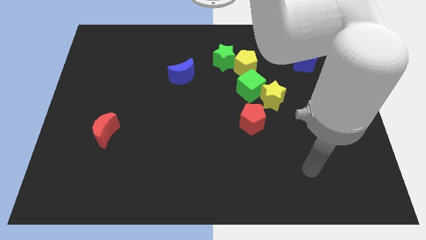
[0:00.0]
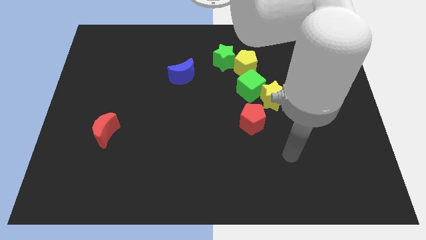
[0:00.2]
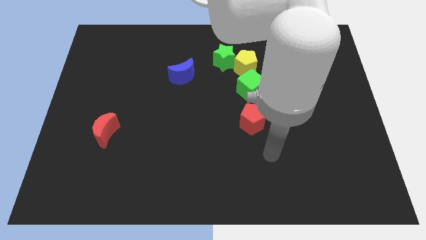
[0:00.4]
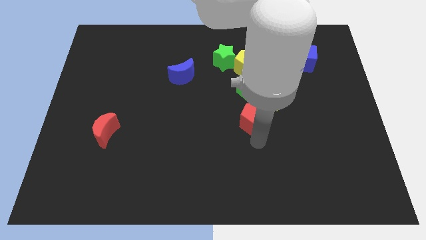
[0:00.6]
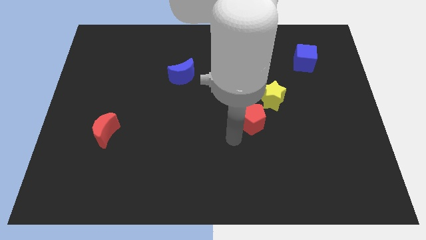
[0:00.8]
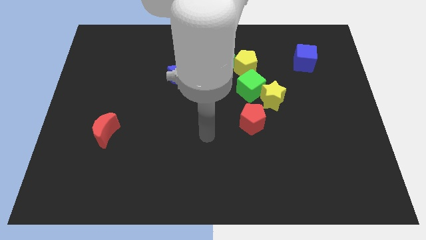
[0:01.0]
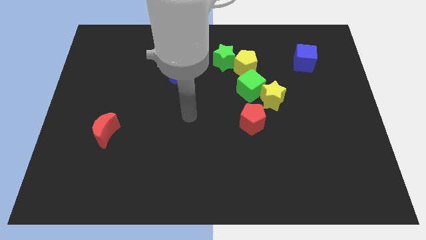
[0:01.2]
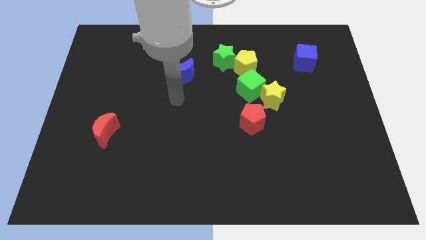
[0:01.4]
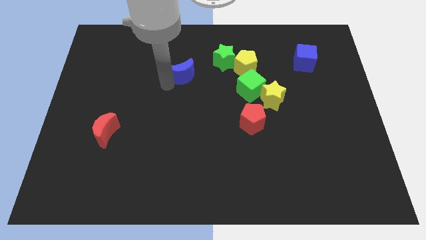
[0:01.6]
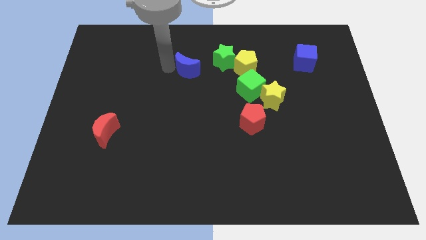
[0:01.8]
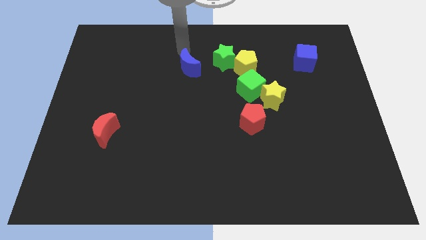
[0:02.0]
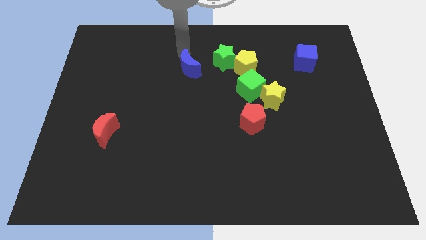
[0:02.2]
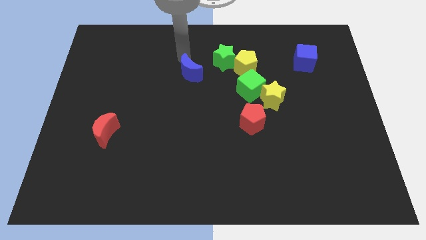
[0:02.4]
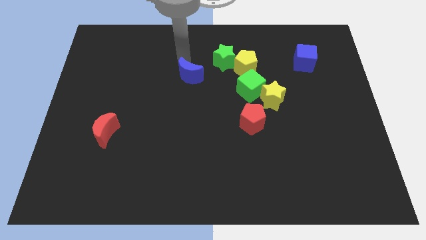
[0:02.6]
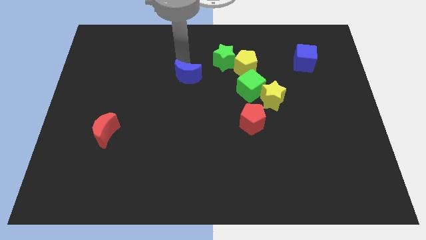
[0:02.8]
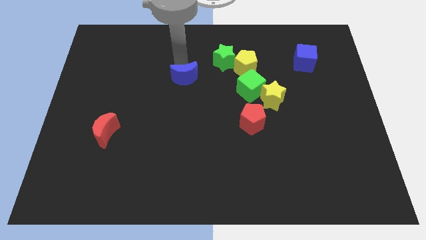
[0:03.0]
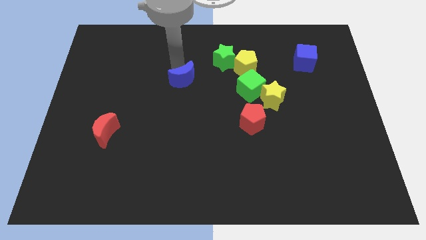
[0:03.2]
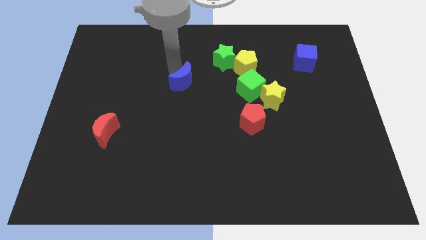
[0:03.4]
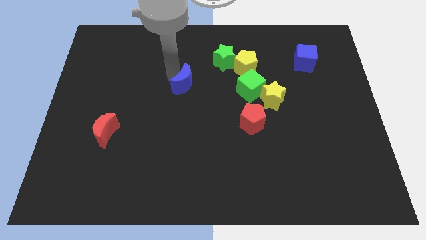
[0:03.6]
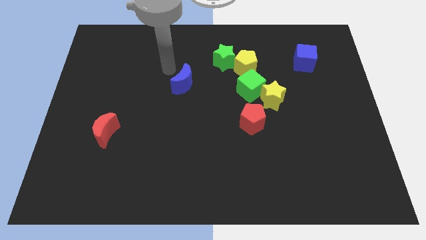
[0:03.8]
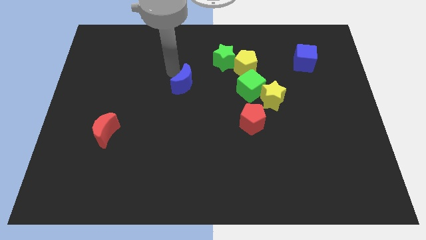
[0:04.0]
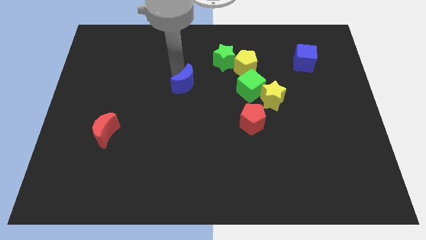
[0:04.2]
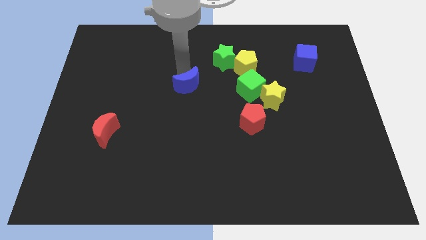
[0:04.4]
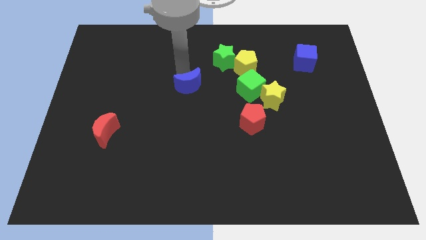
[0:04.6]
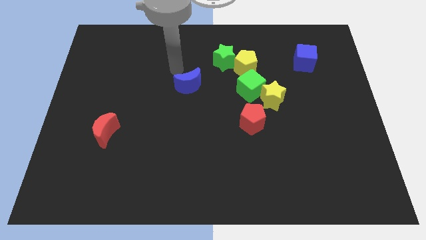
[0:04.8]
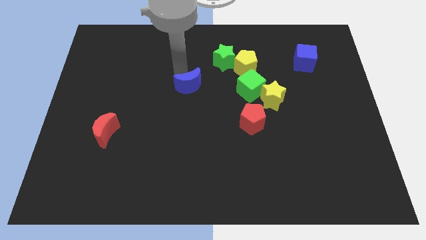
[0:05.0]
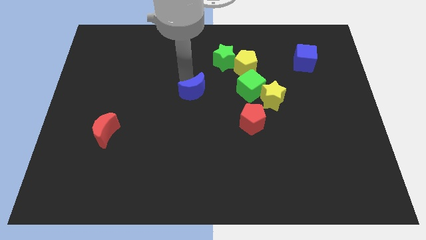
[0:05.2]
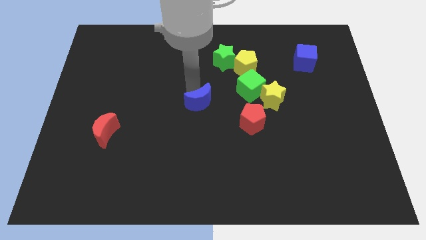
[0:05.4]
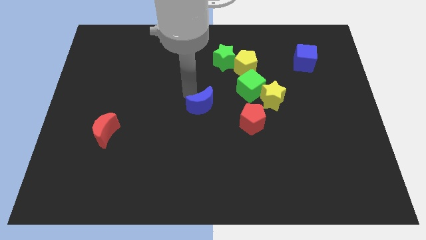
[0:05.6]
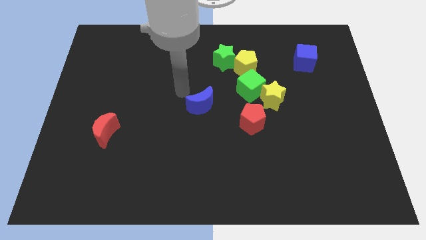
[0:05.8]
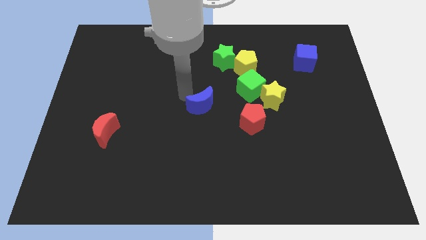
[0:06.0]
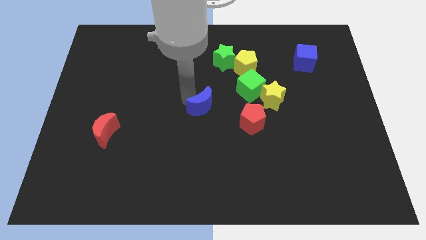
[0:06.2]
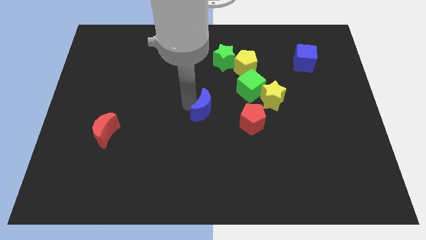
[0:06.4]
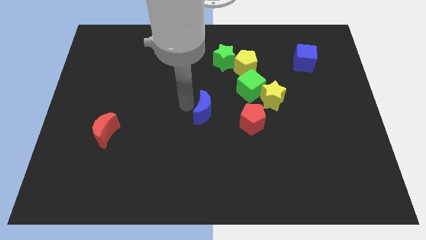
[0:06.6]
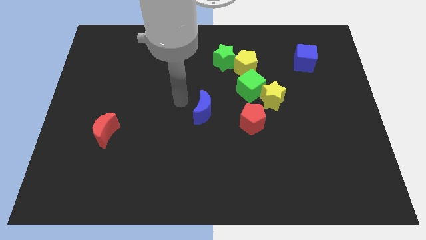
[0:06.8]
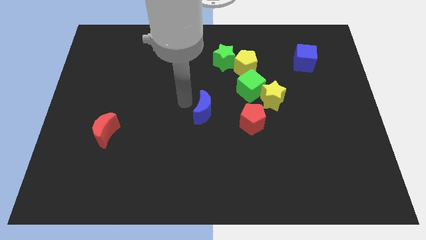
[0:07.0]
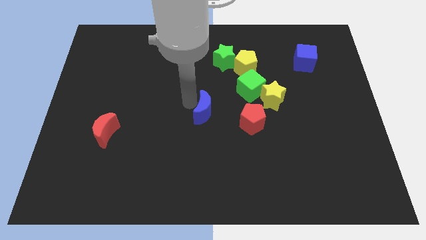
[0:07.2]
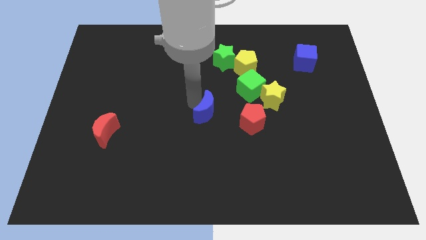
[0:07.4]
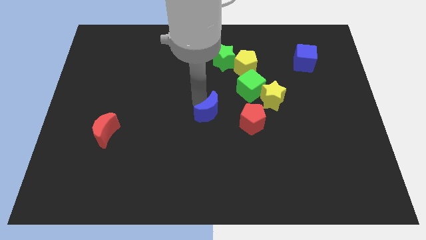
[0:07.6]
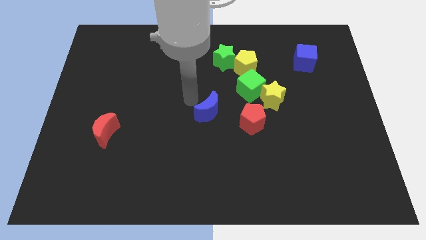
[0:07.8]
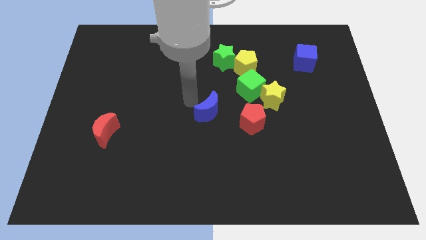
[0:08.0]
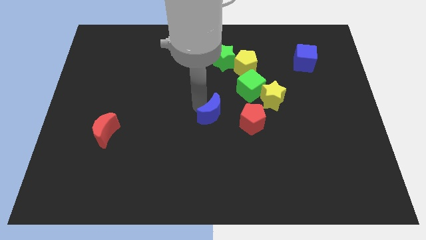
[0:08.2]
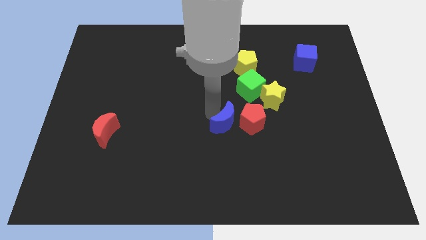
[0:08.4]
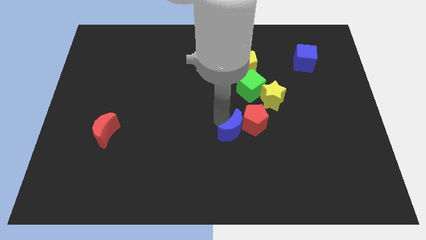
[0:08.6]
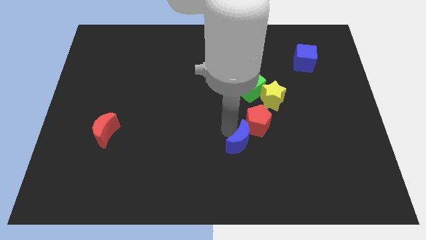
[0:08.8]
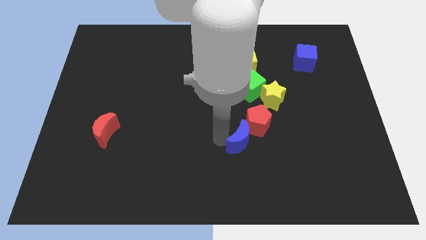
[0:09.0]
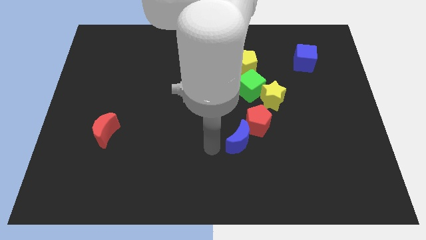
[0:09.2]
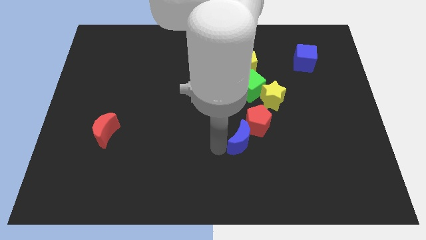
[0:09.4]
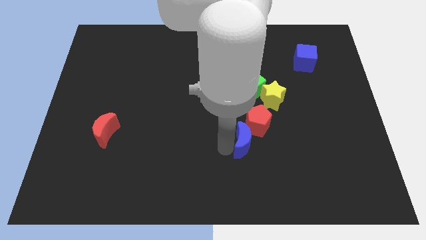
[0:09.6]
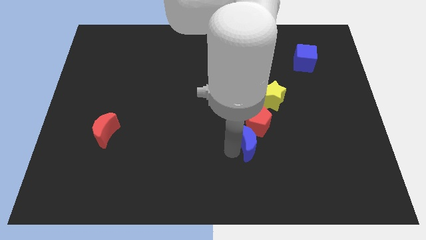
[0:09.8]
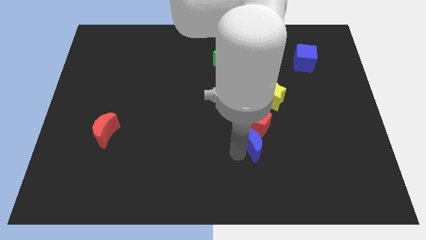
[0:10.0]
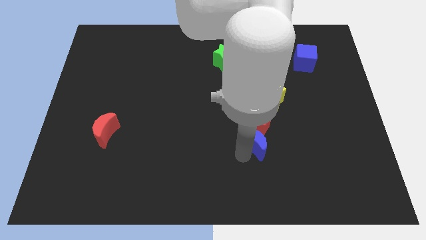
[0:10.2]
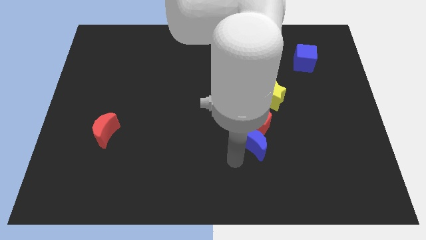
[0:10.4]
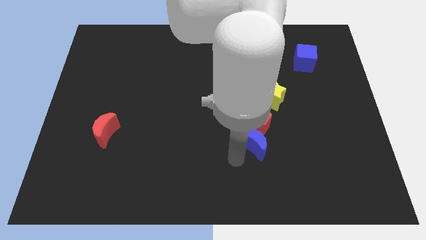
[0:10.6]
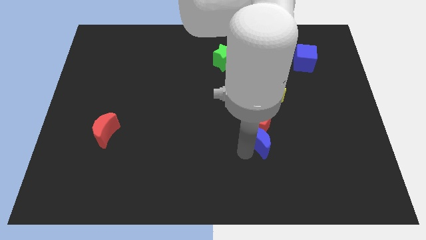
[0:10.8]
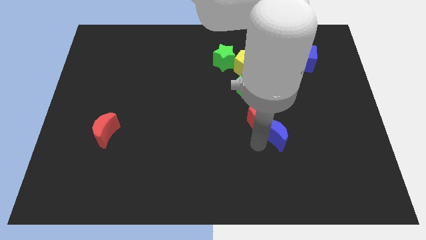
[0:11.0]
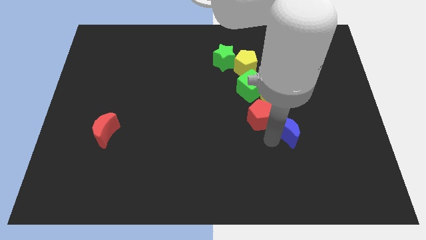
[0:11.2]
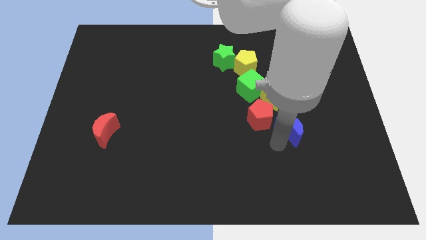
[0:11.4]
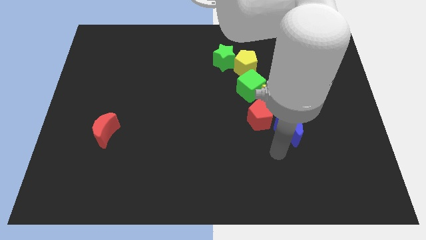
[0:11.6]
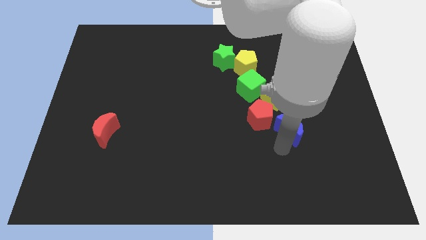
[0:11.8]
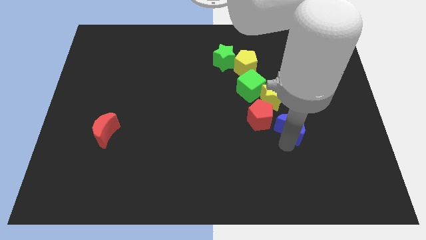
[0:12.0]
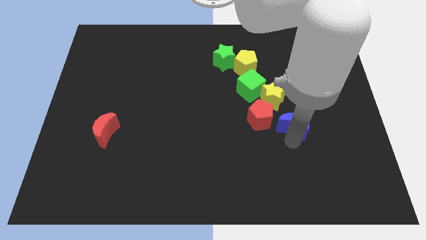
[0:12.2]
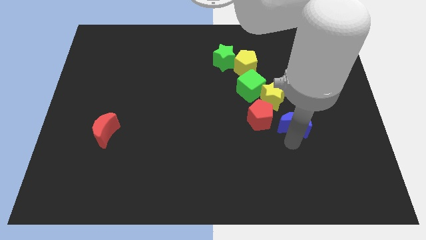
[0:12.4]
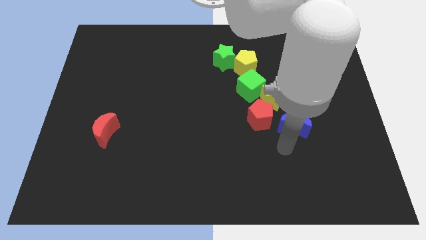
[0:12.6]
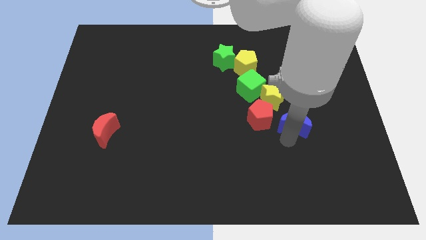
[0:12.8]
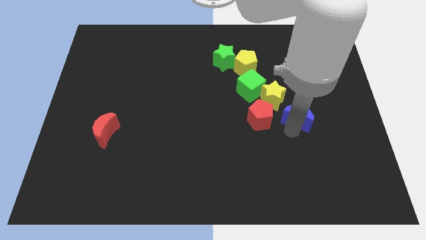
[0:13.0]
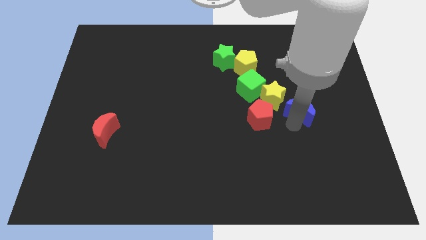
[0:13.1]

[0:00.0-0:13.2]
put the blue moon just right of the yellow star

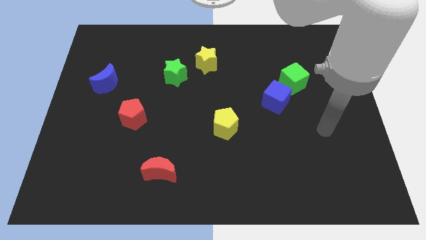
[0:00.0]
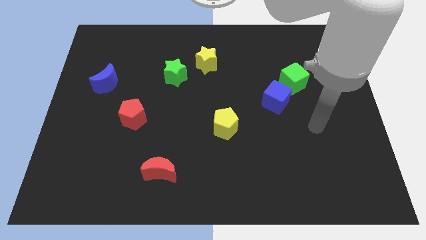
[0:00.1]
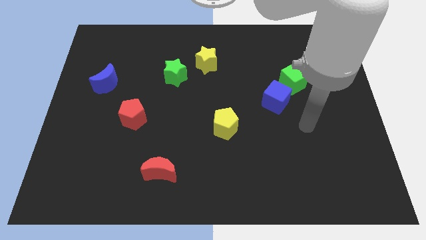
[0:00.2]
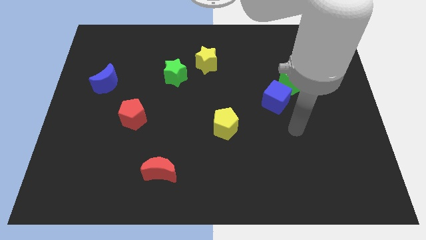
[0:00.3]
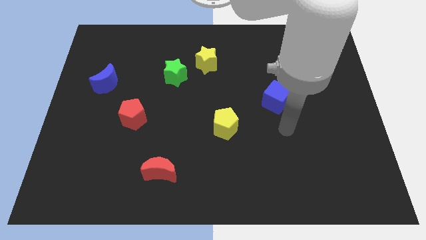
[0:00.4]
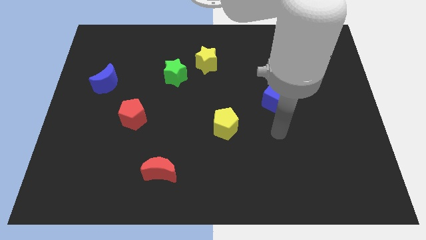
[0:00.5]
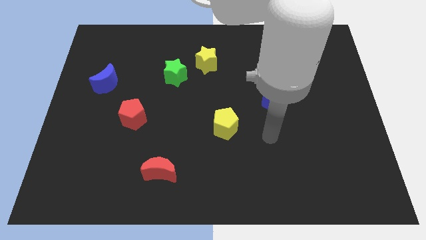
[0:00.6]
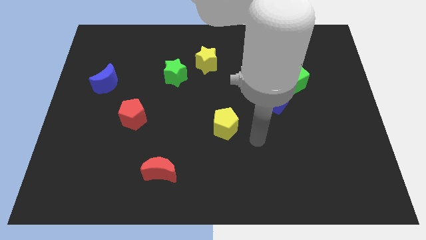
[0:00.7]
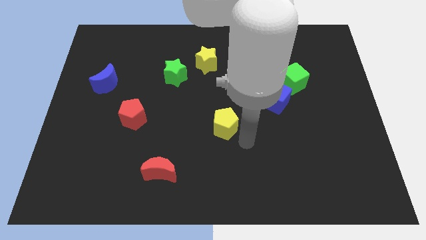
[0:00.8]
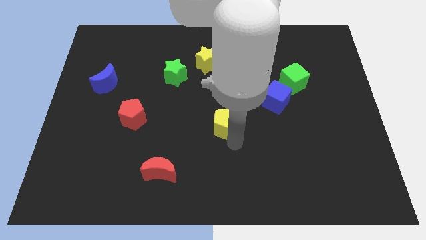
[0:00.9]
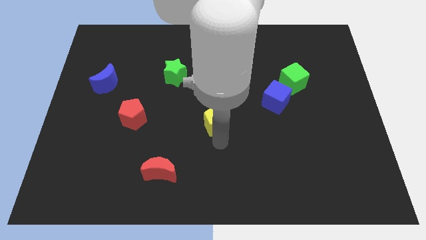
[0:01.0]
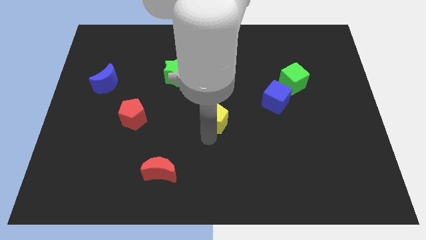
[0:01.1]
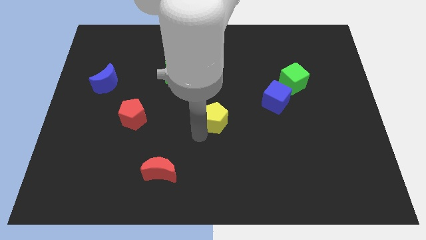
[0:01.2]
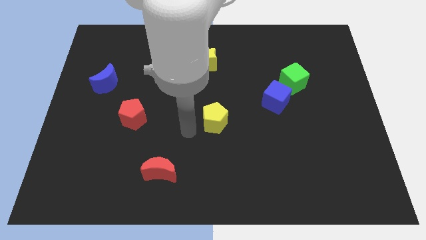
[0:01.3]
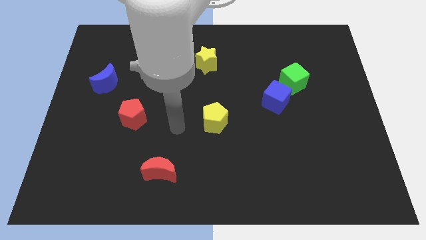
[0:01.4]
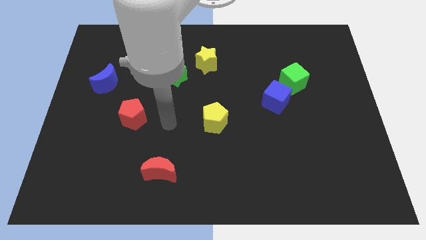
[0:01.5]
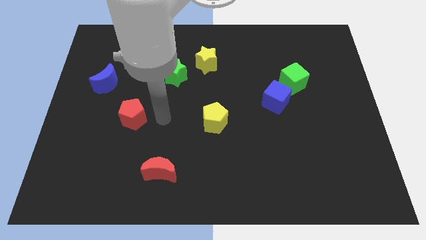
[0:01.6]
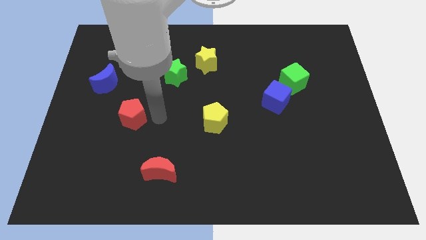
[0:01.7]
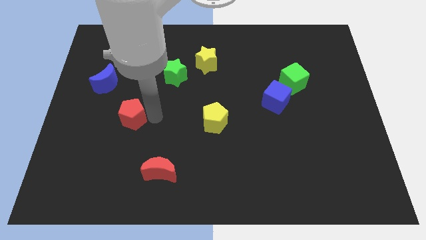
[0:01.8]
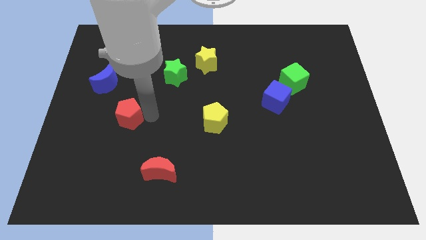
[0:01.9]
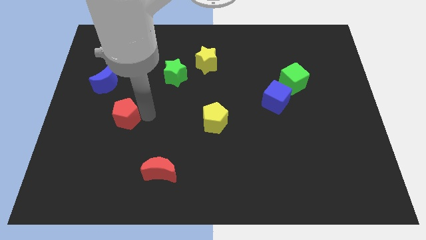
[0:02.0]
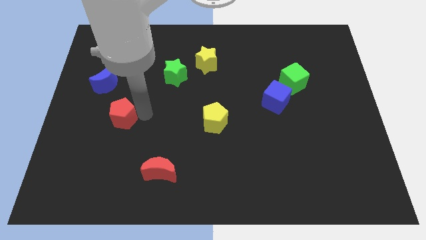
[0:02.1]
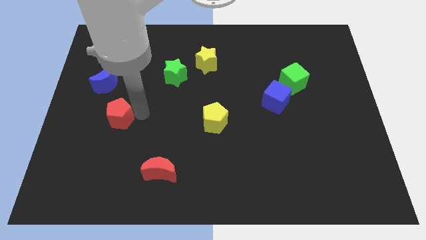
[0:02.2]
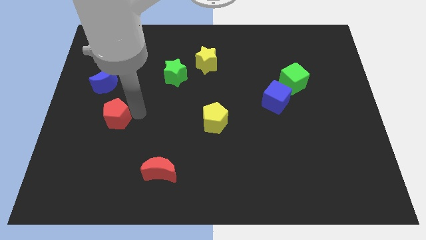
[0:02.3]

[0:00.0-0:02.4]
slide the red pentagon to the bottom side of the blue moon
